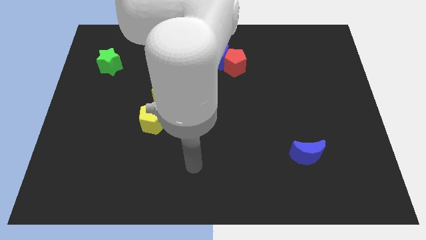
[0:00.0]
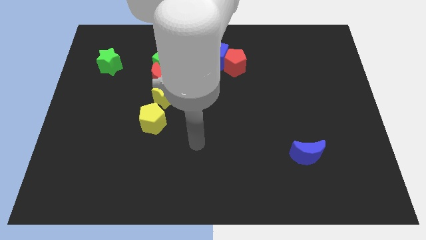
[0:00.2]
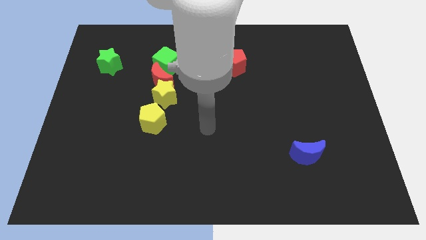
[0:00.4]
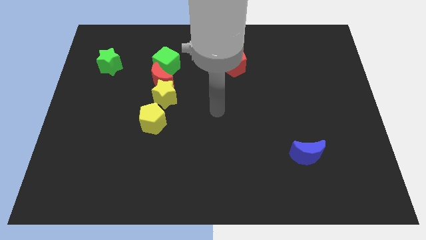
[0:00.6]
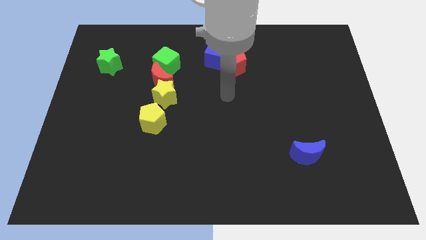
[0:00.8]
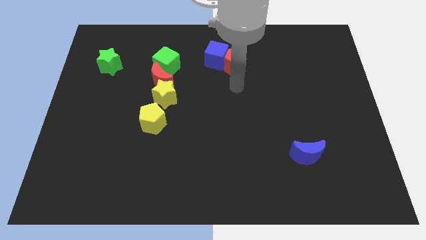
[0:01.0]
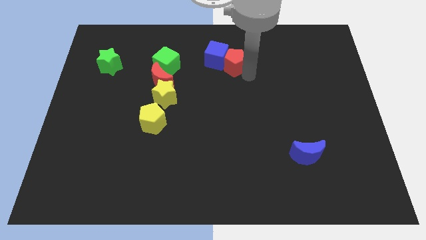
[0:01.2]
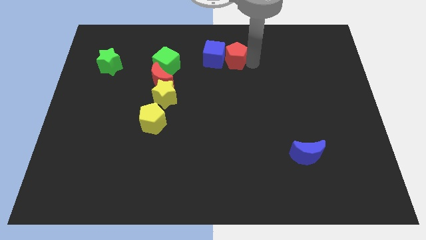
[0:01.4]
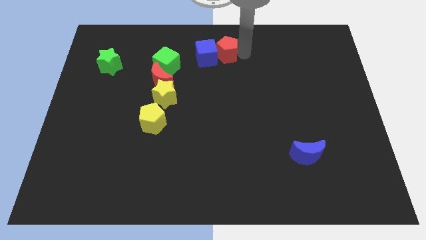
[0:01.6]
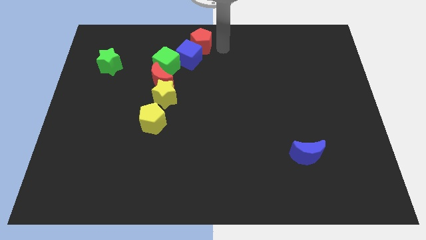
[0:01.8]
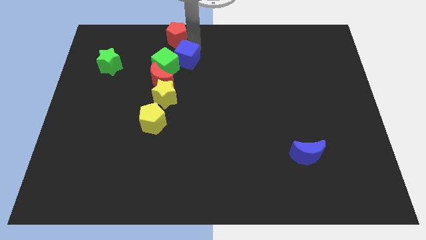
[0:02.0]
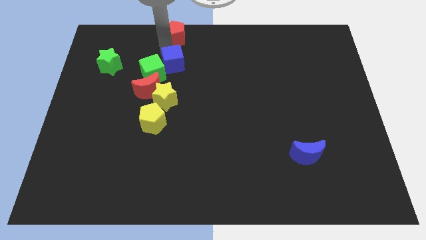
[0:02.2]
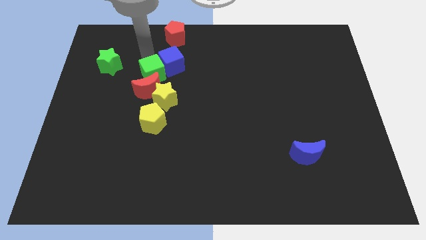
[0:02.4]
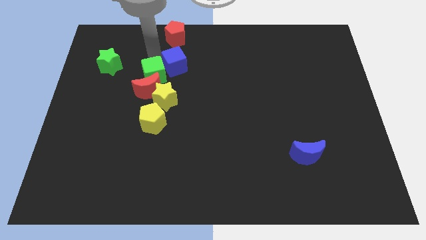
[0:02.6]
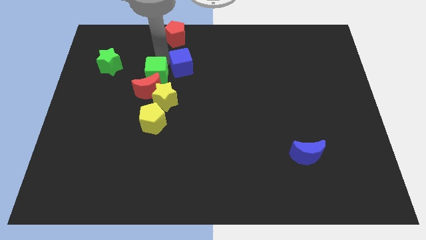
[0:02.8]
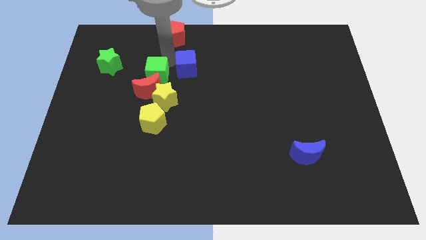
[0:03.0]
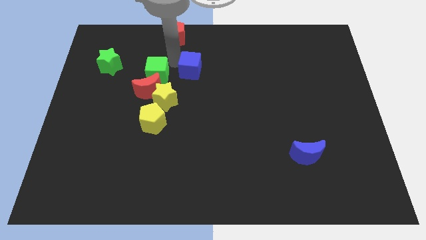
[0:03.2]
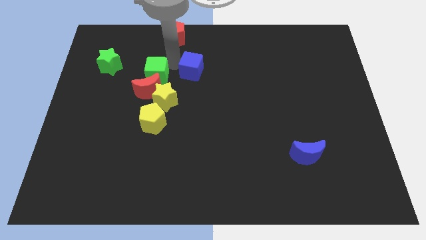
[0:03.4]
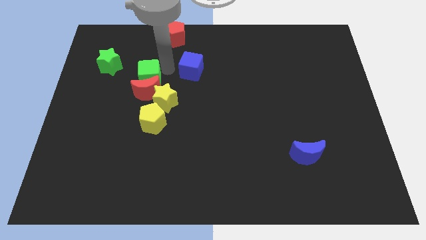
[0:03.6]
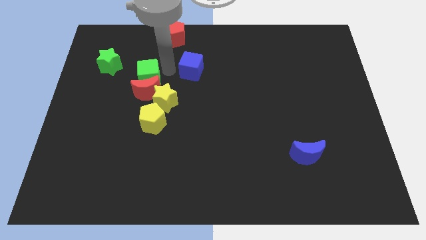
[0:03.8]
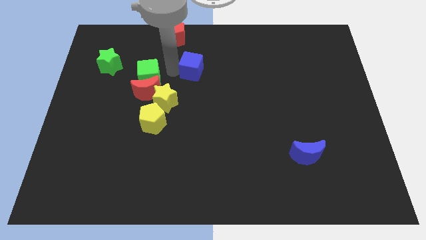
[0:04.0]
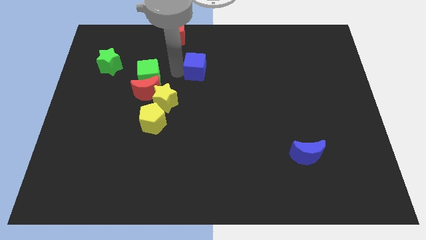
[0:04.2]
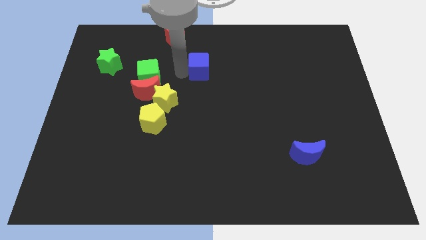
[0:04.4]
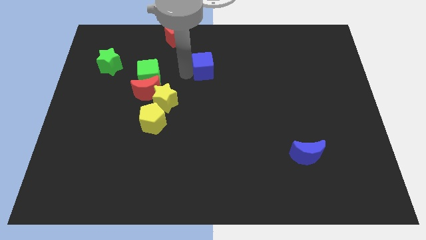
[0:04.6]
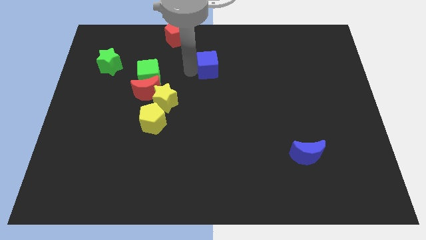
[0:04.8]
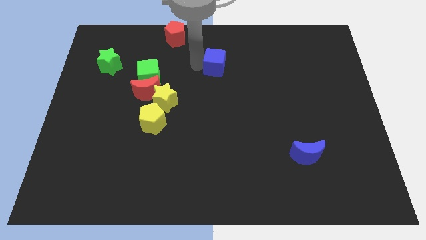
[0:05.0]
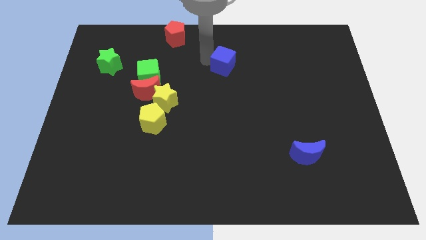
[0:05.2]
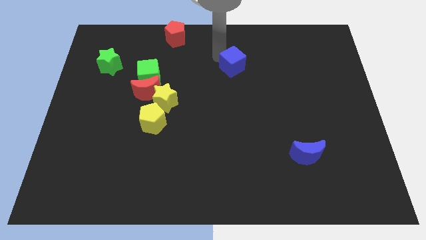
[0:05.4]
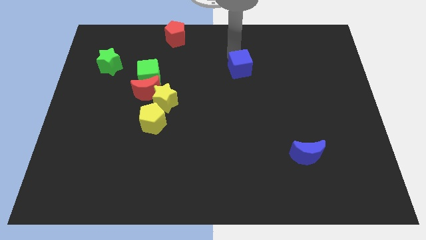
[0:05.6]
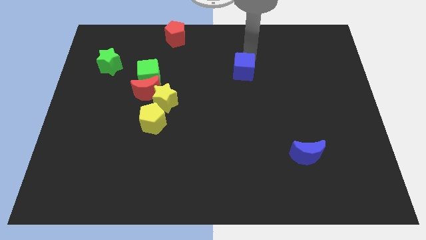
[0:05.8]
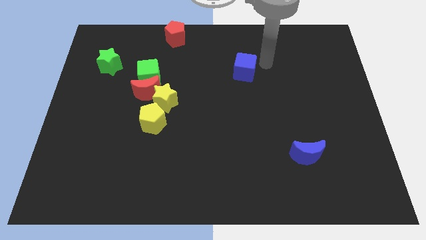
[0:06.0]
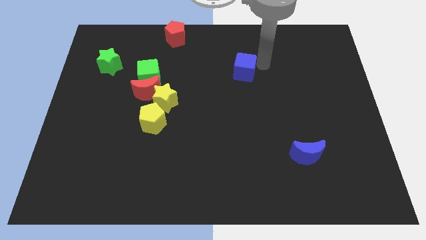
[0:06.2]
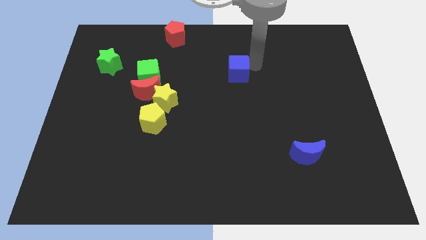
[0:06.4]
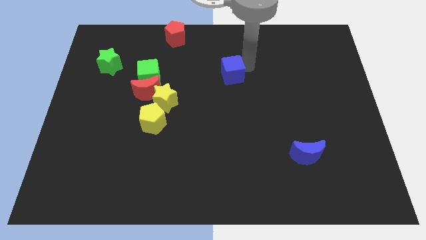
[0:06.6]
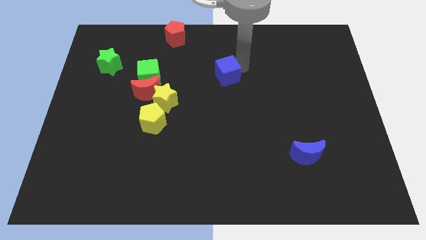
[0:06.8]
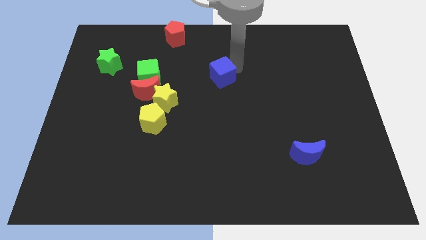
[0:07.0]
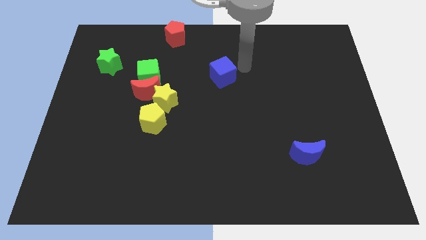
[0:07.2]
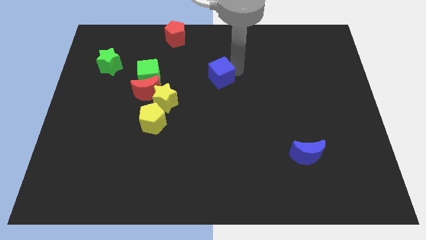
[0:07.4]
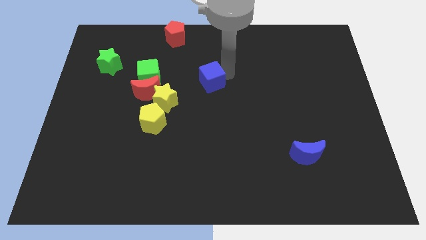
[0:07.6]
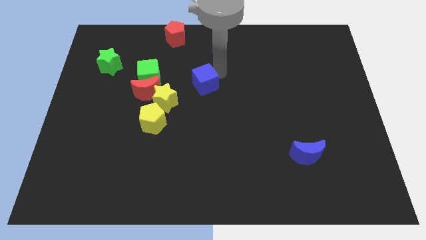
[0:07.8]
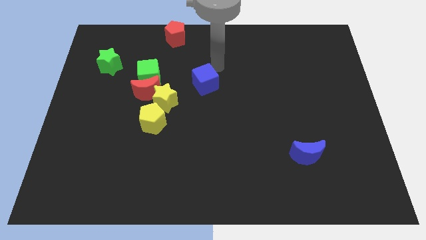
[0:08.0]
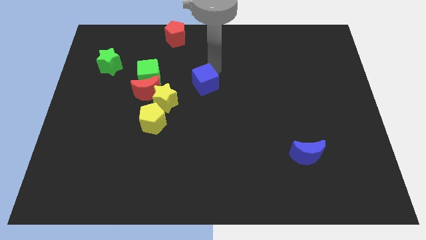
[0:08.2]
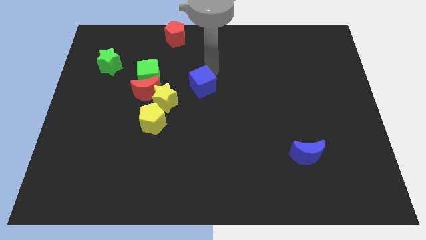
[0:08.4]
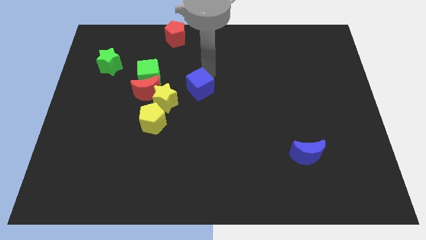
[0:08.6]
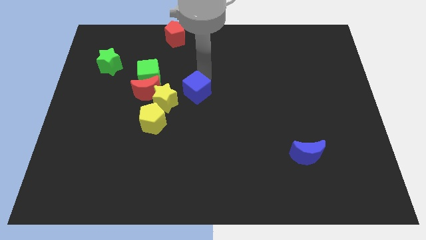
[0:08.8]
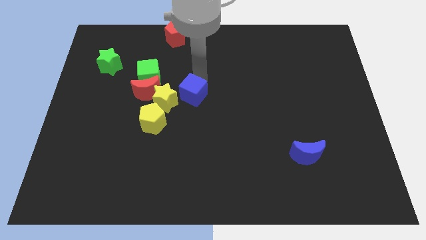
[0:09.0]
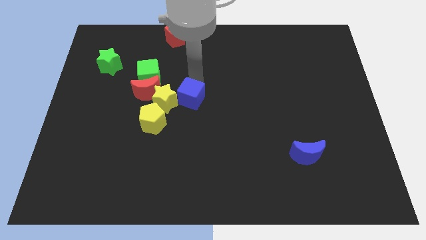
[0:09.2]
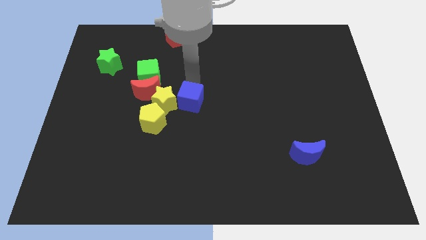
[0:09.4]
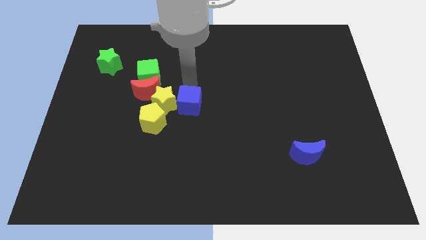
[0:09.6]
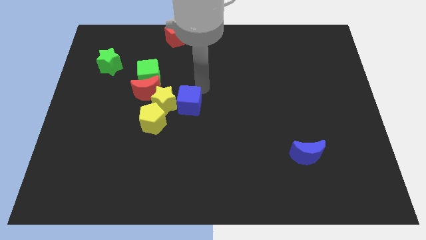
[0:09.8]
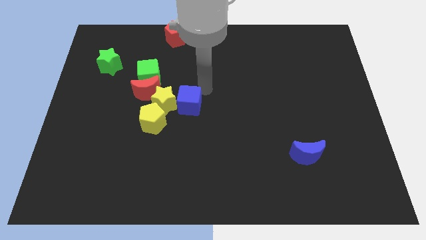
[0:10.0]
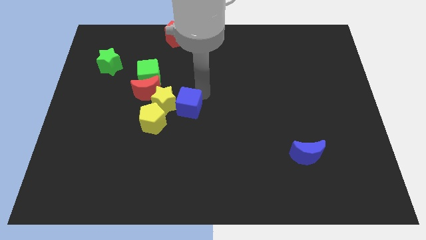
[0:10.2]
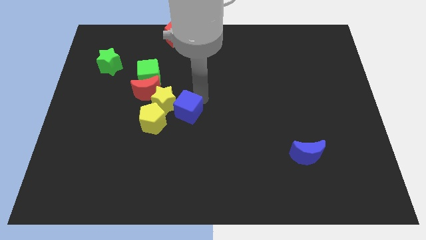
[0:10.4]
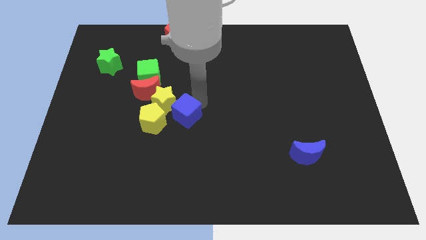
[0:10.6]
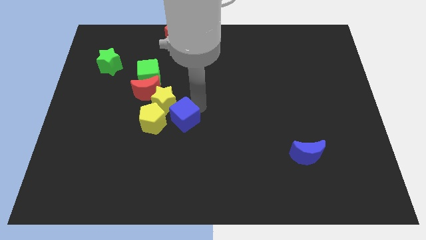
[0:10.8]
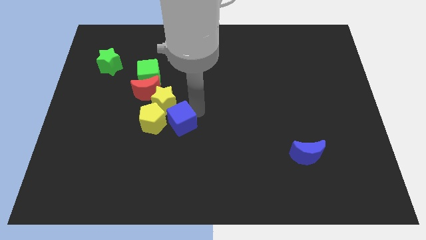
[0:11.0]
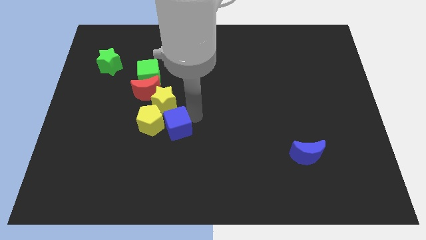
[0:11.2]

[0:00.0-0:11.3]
move the blue cube to the yellow pentagon

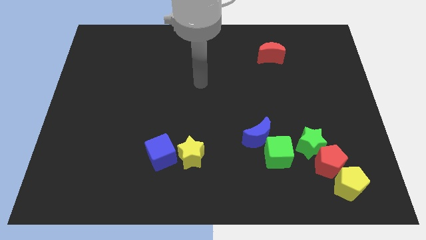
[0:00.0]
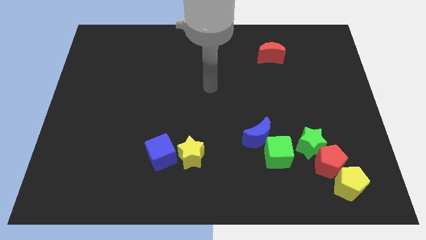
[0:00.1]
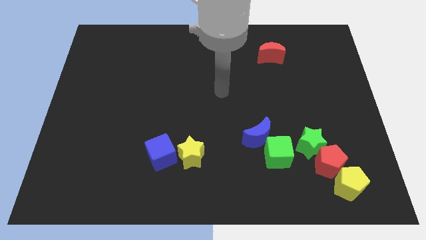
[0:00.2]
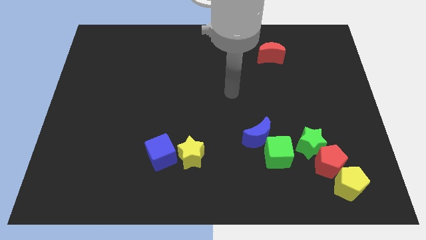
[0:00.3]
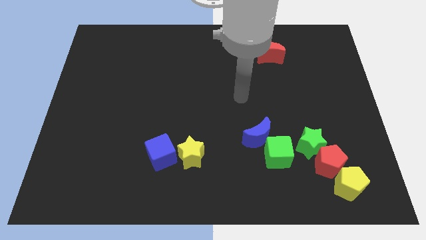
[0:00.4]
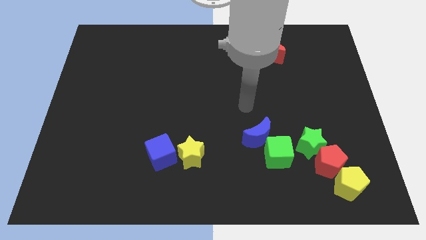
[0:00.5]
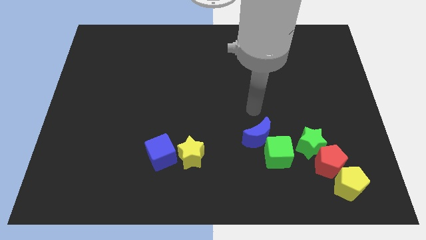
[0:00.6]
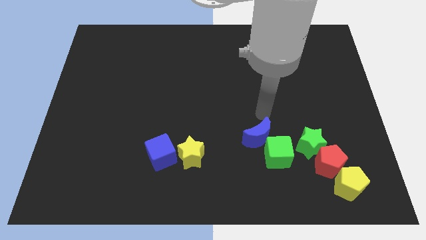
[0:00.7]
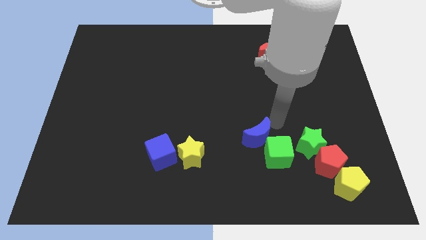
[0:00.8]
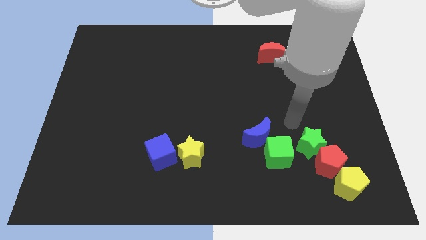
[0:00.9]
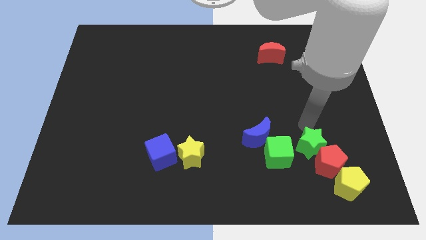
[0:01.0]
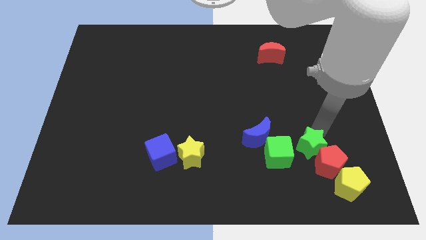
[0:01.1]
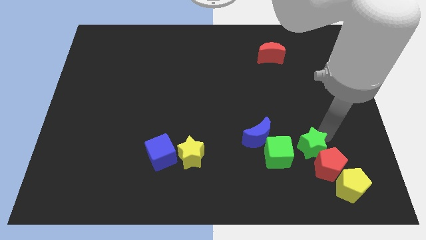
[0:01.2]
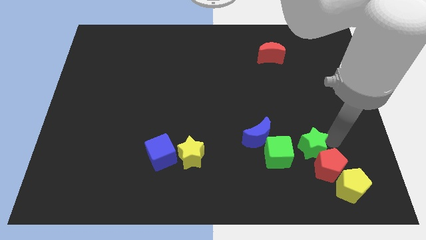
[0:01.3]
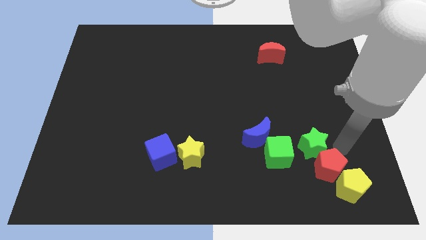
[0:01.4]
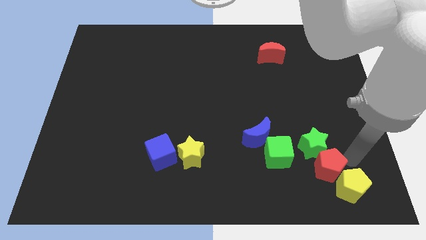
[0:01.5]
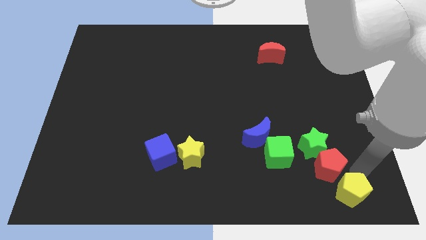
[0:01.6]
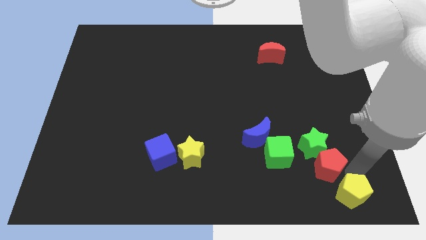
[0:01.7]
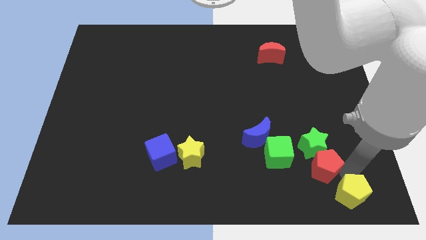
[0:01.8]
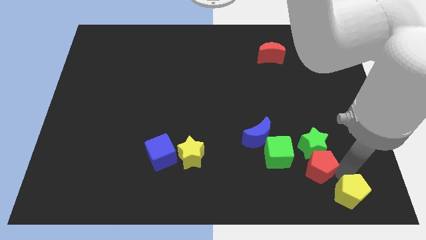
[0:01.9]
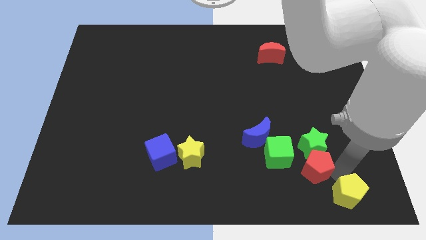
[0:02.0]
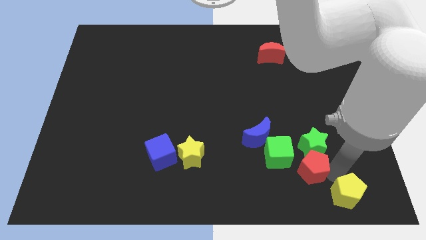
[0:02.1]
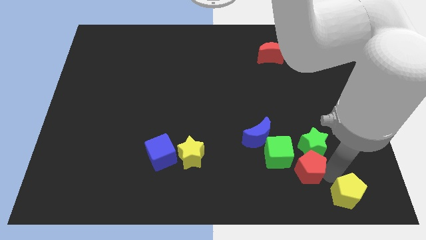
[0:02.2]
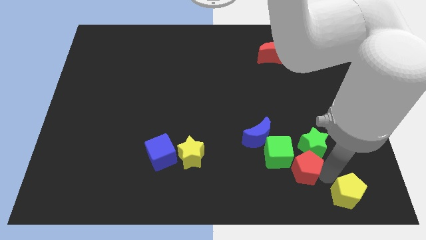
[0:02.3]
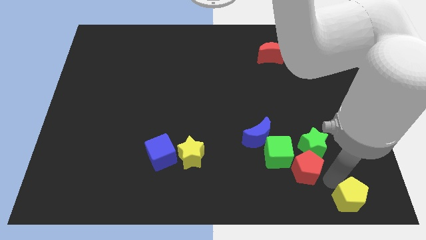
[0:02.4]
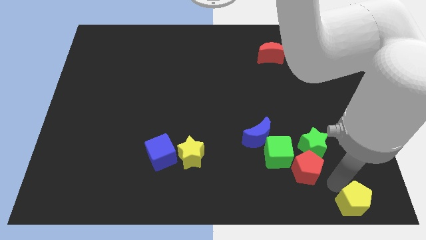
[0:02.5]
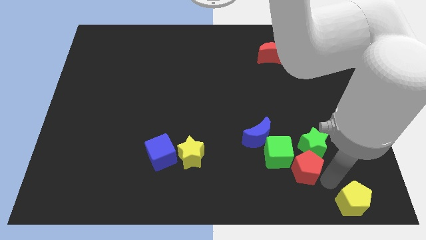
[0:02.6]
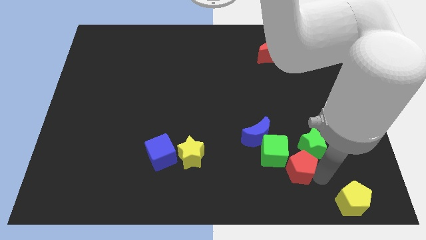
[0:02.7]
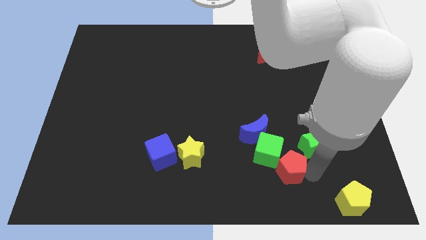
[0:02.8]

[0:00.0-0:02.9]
slide the red pentagon next to the green cube
